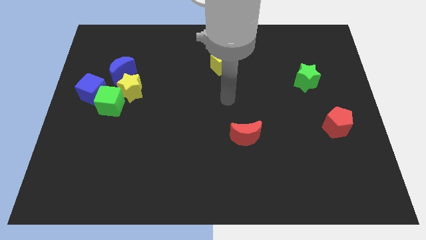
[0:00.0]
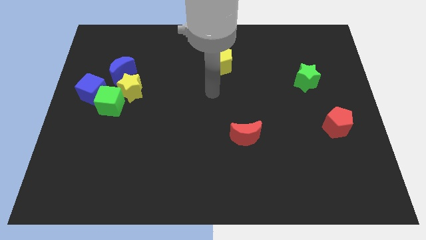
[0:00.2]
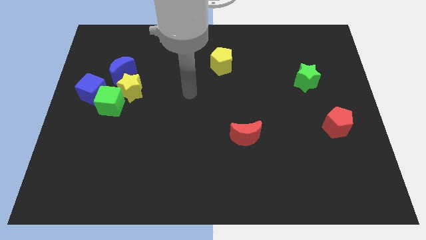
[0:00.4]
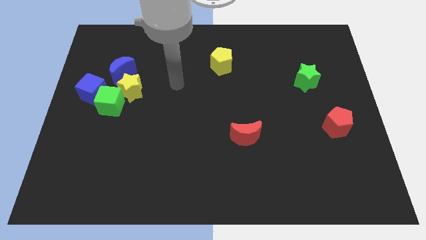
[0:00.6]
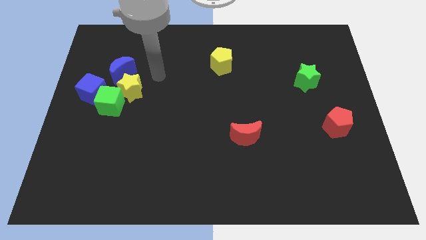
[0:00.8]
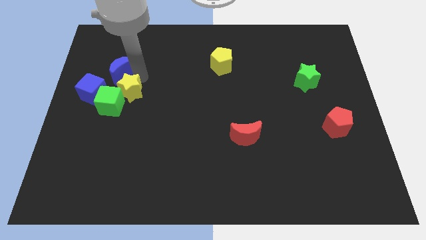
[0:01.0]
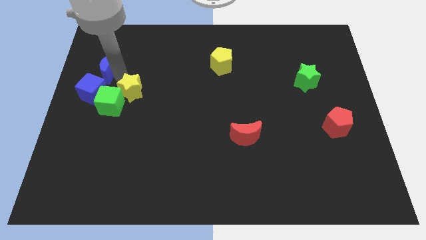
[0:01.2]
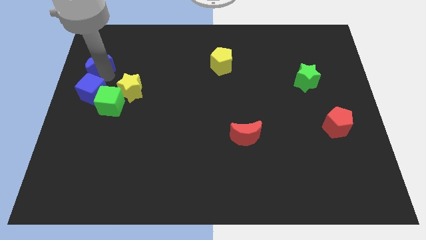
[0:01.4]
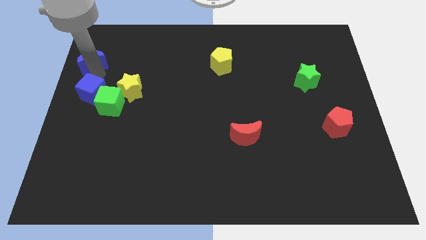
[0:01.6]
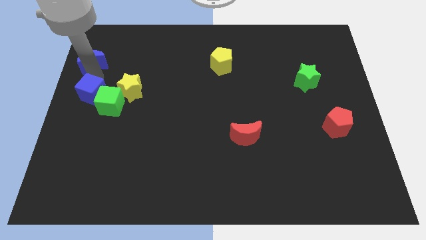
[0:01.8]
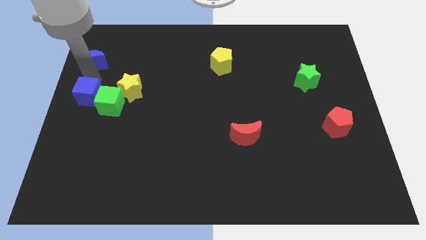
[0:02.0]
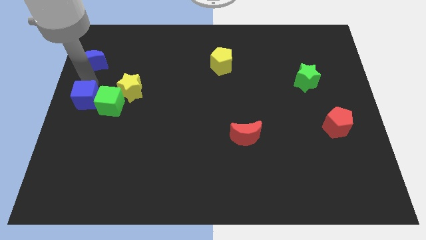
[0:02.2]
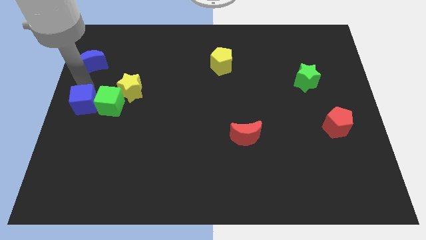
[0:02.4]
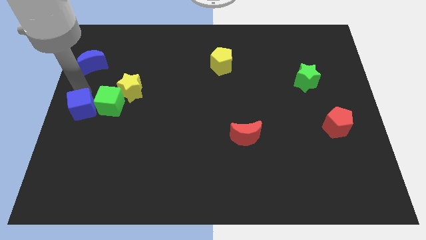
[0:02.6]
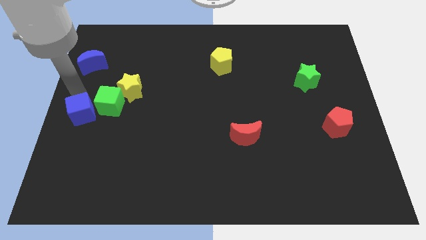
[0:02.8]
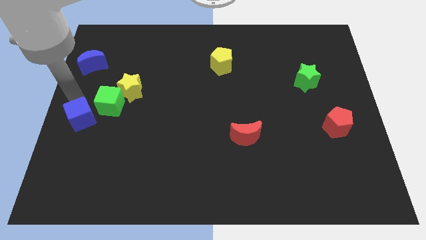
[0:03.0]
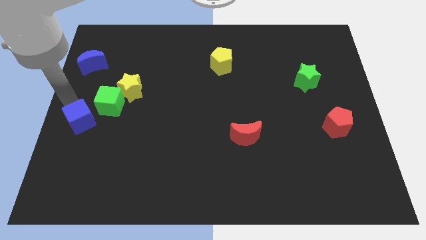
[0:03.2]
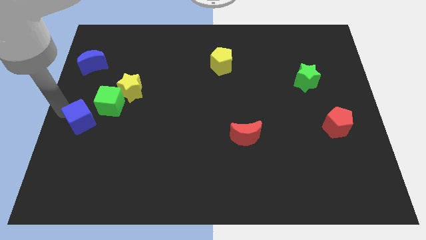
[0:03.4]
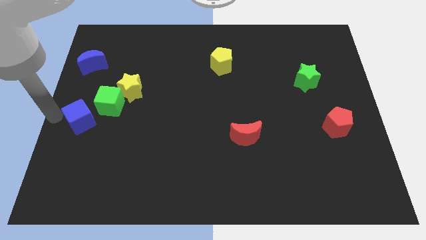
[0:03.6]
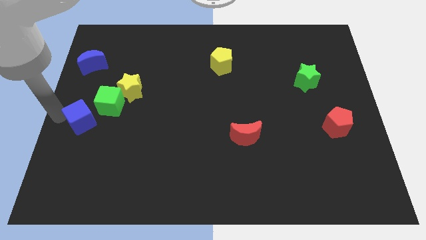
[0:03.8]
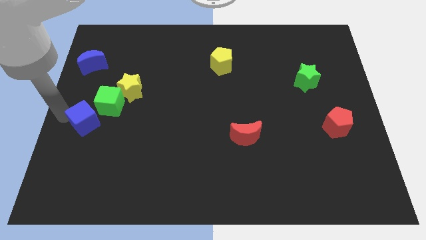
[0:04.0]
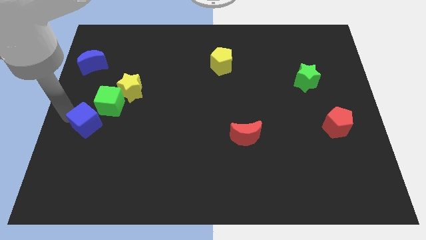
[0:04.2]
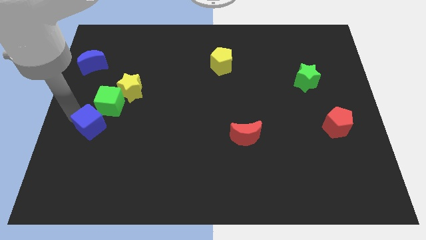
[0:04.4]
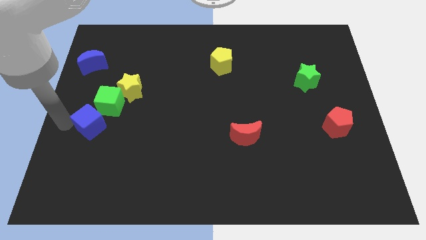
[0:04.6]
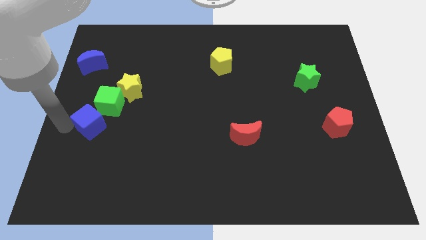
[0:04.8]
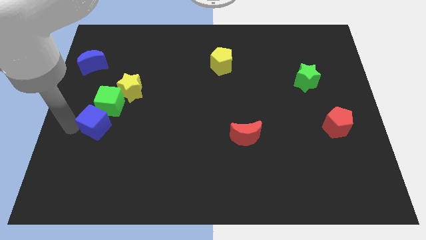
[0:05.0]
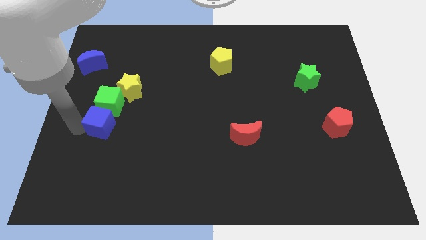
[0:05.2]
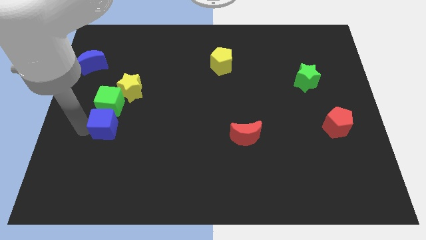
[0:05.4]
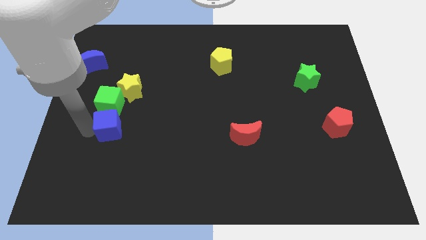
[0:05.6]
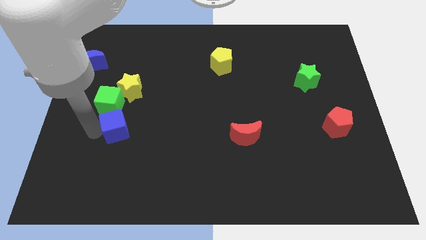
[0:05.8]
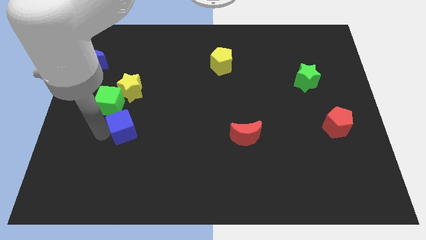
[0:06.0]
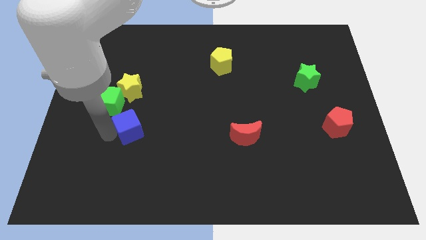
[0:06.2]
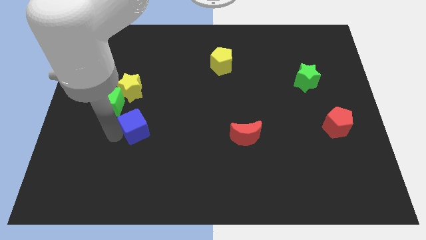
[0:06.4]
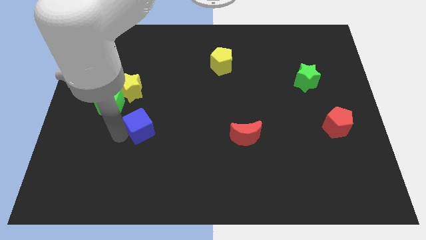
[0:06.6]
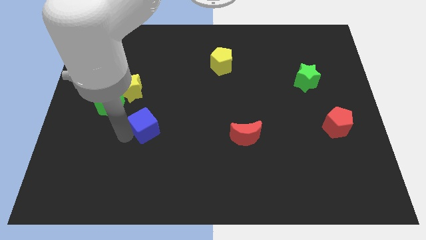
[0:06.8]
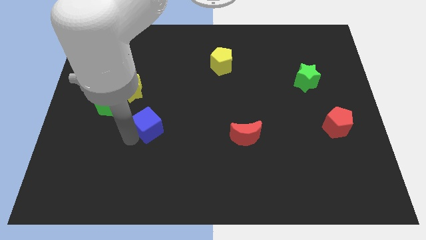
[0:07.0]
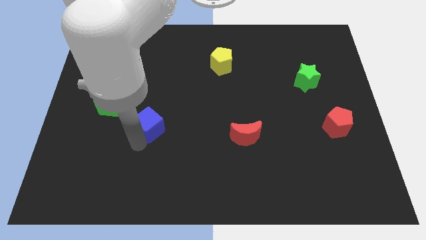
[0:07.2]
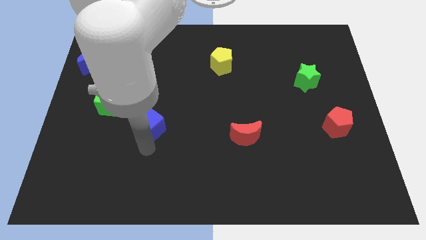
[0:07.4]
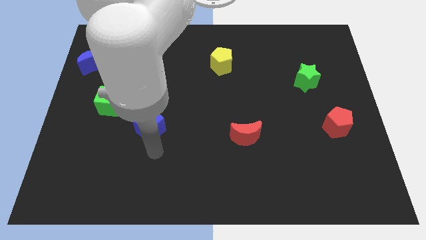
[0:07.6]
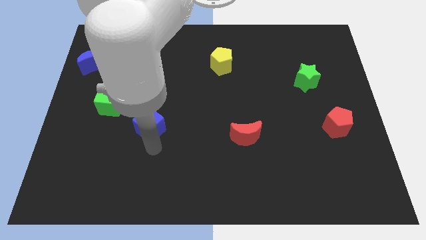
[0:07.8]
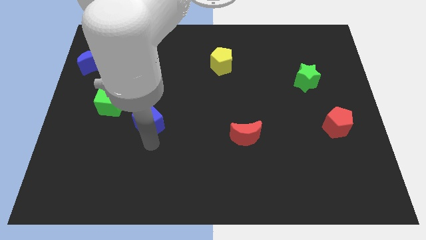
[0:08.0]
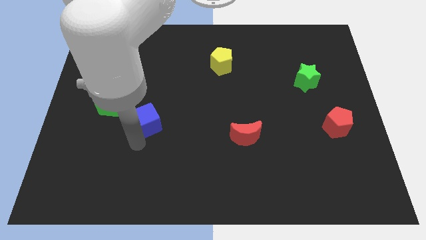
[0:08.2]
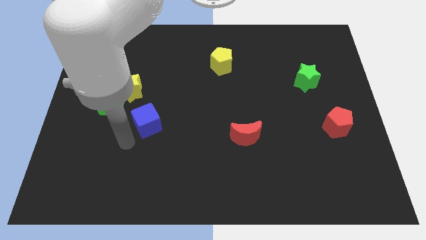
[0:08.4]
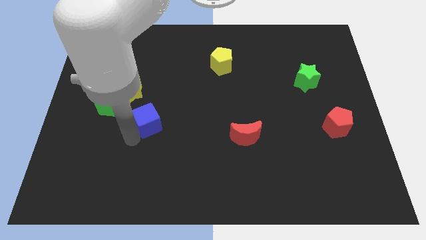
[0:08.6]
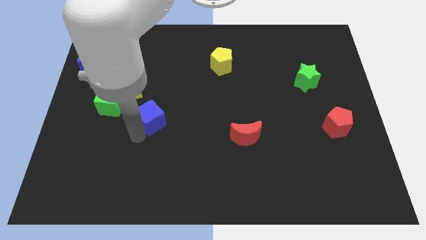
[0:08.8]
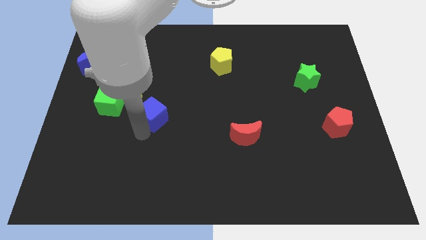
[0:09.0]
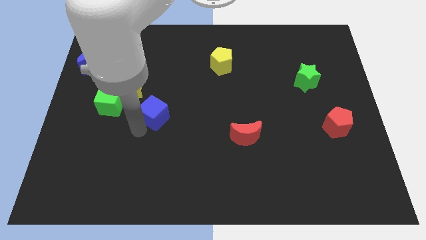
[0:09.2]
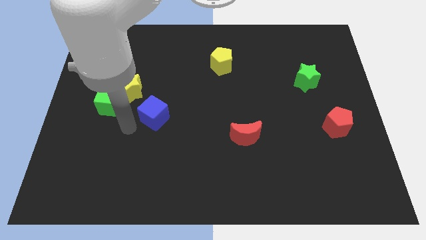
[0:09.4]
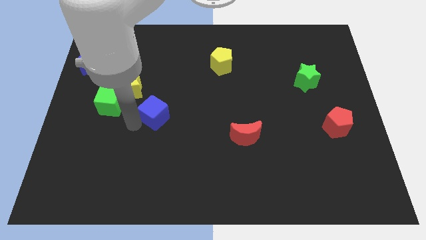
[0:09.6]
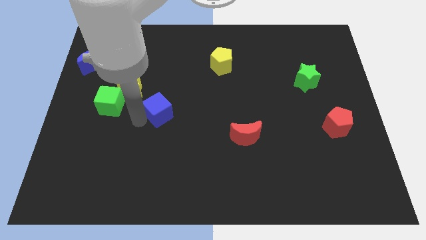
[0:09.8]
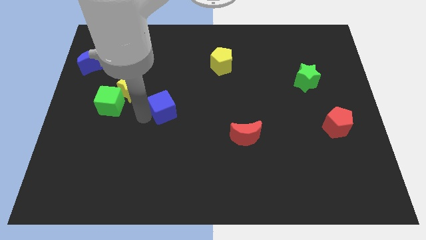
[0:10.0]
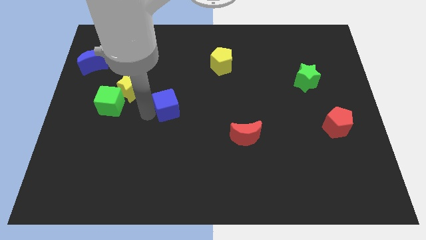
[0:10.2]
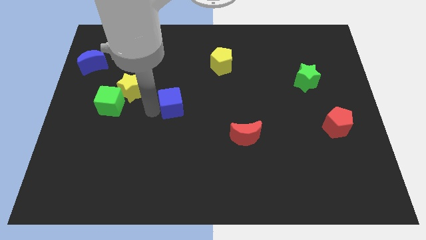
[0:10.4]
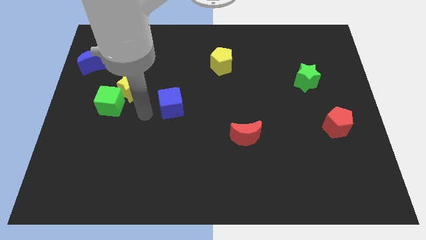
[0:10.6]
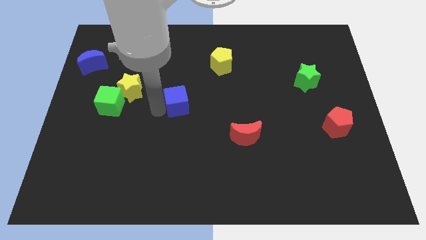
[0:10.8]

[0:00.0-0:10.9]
slide the blue cube right

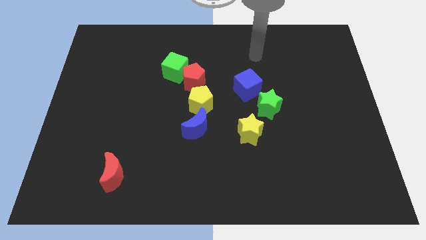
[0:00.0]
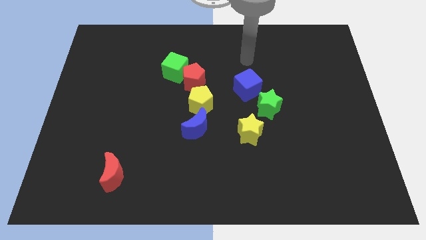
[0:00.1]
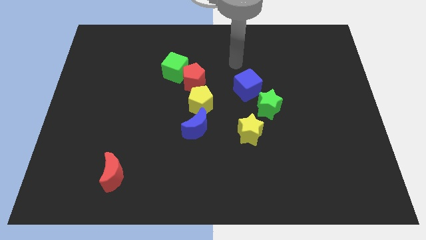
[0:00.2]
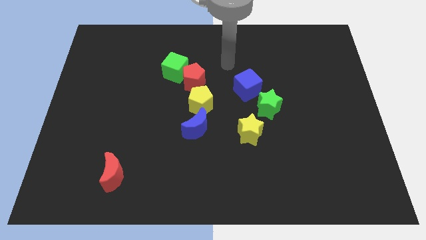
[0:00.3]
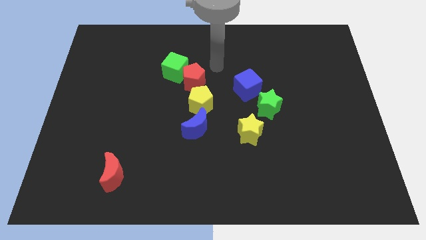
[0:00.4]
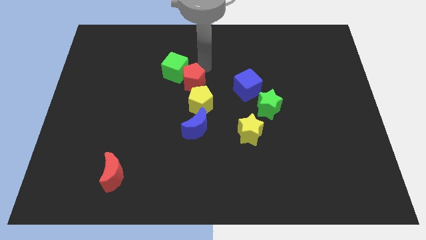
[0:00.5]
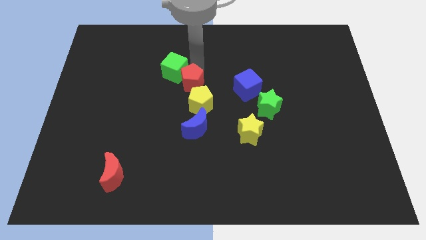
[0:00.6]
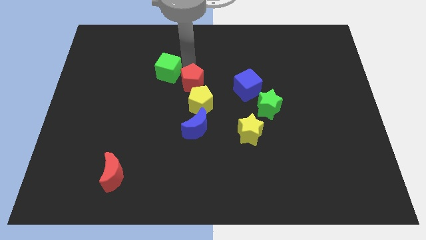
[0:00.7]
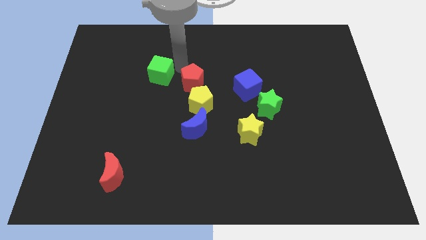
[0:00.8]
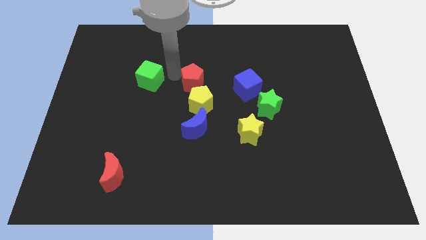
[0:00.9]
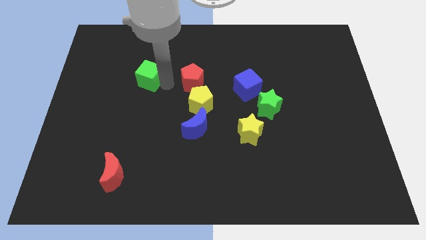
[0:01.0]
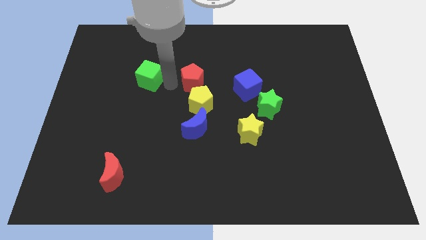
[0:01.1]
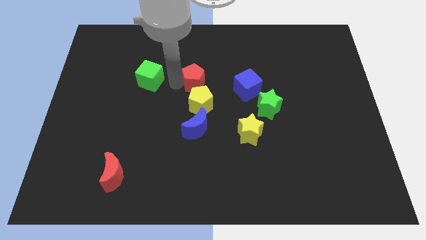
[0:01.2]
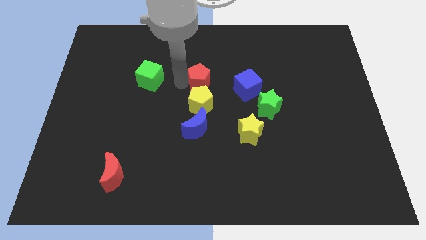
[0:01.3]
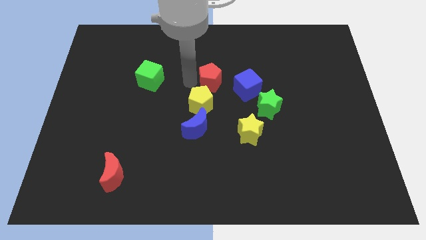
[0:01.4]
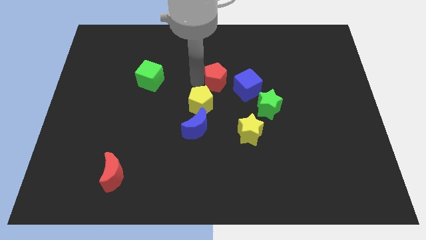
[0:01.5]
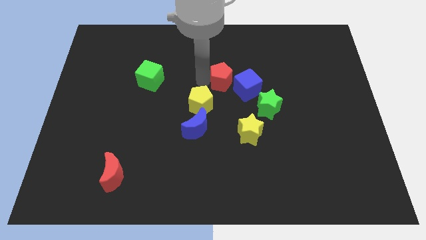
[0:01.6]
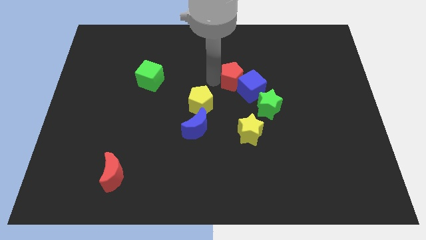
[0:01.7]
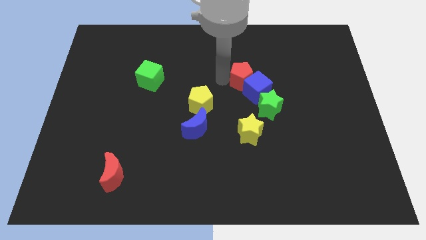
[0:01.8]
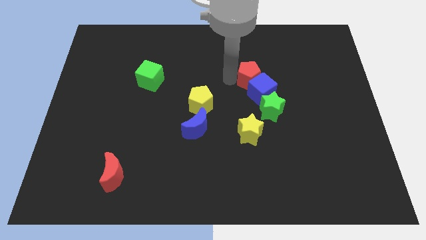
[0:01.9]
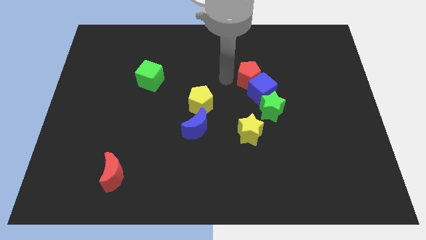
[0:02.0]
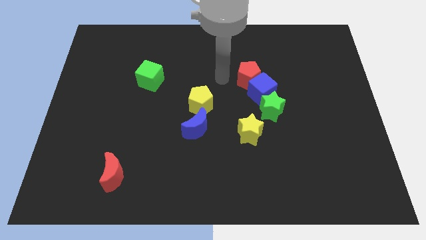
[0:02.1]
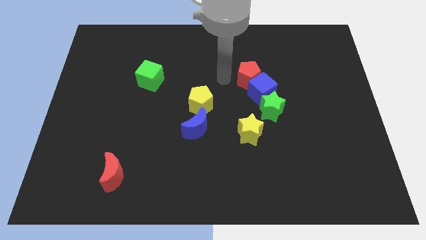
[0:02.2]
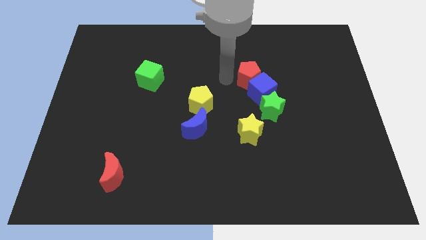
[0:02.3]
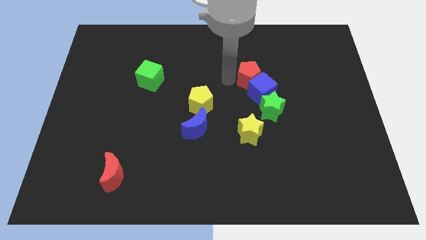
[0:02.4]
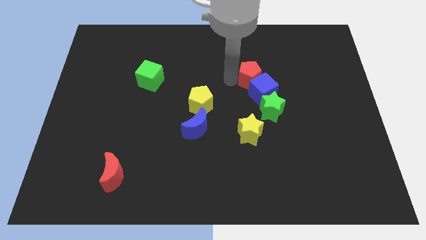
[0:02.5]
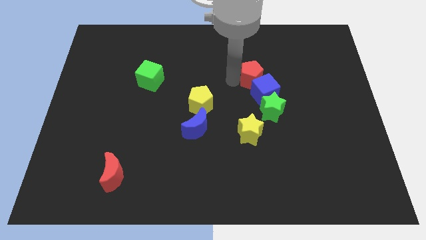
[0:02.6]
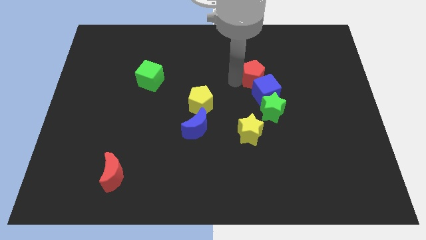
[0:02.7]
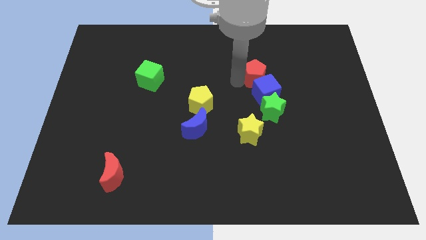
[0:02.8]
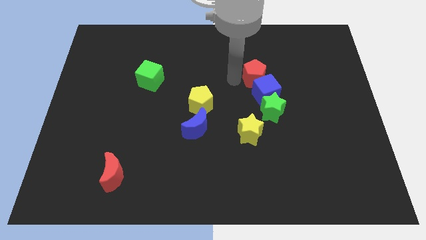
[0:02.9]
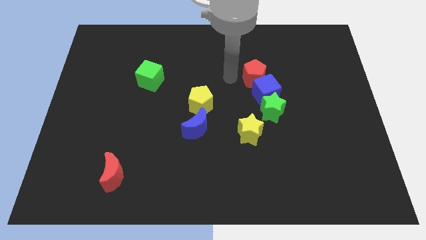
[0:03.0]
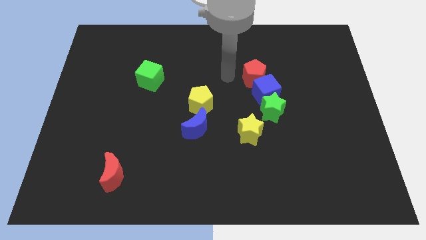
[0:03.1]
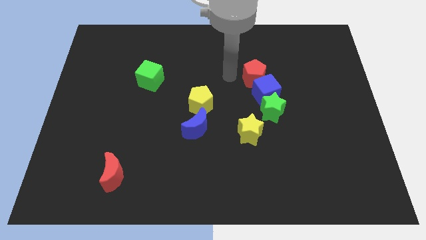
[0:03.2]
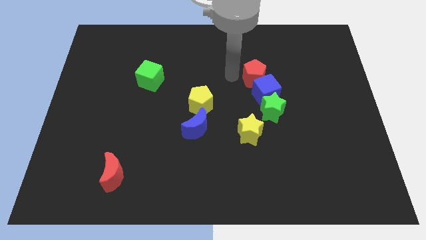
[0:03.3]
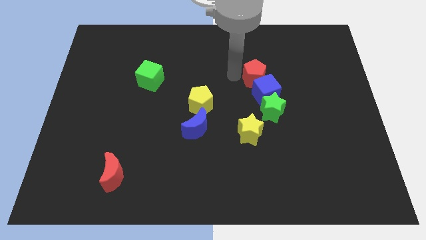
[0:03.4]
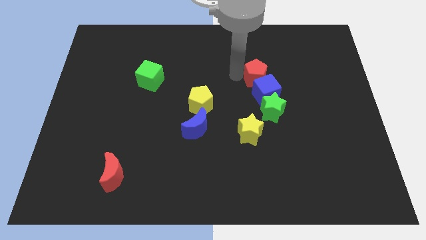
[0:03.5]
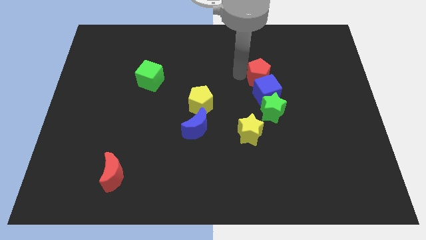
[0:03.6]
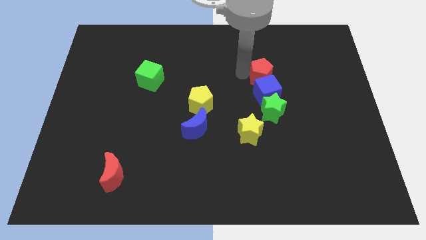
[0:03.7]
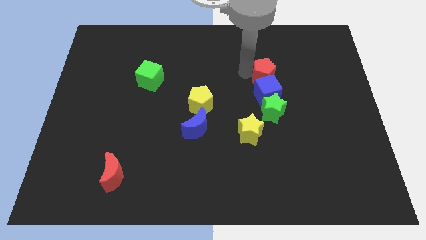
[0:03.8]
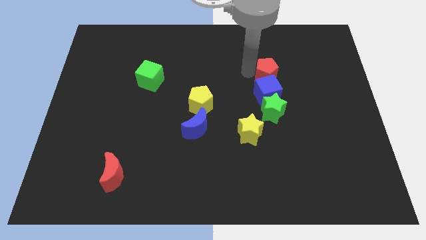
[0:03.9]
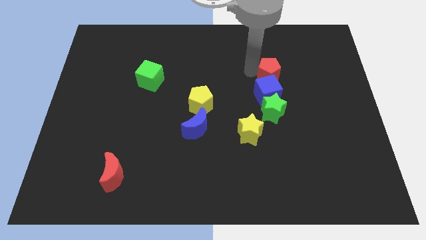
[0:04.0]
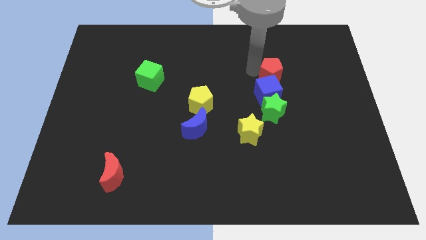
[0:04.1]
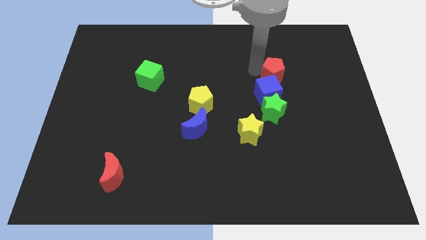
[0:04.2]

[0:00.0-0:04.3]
move the red pentagon right
